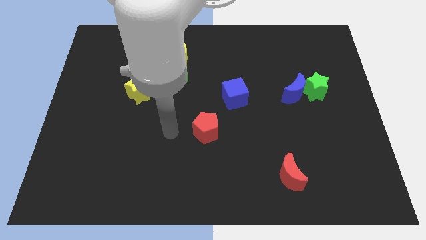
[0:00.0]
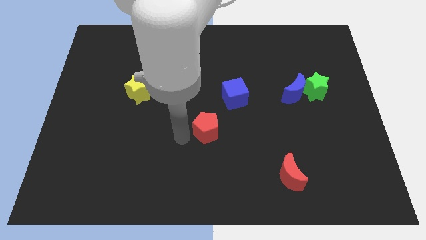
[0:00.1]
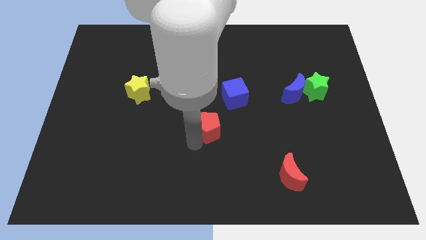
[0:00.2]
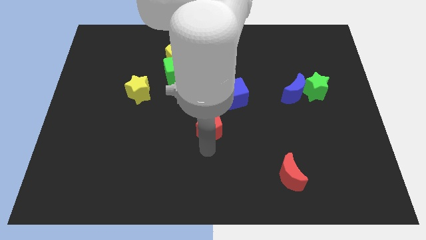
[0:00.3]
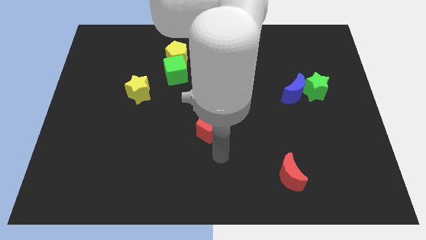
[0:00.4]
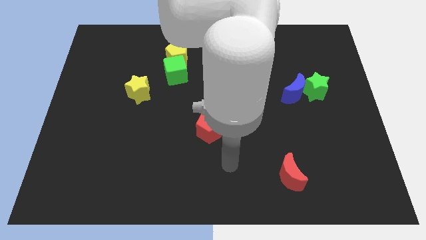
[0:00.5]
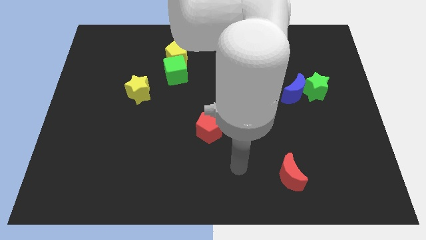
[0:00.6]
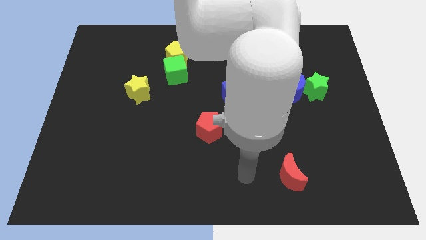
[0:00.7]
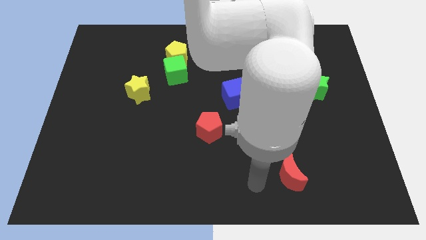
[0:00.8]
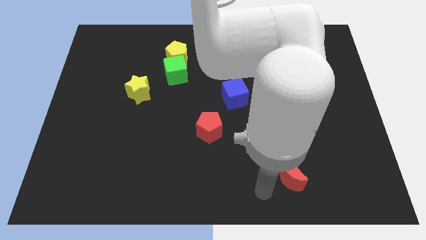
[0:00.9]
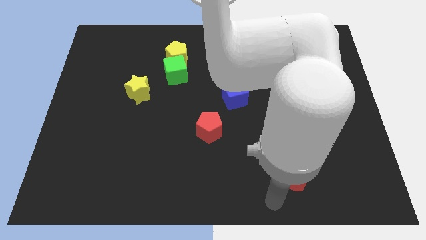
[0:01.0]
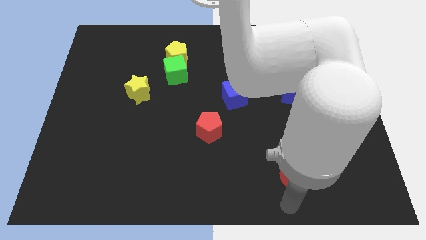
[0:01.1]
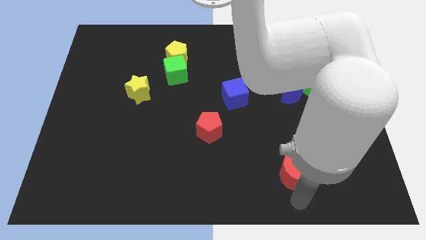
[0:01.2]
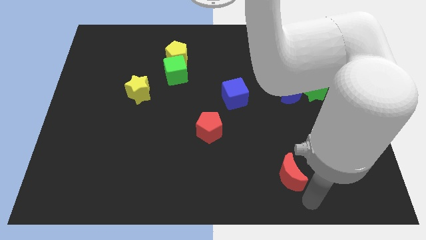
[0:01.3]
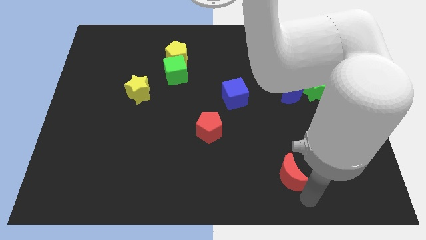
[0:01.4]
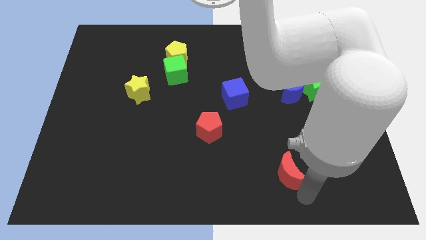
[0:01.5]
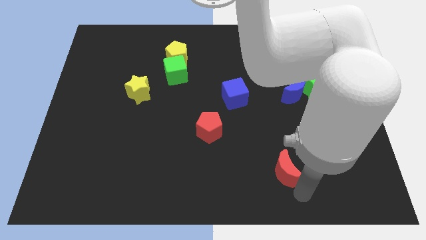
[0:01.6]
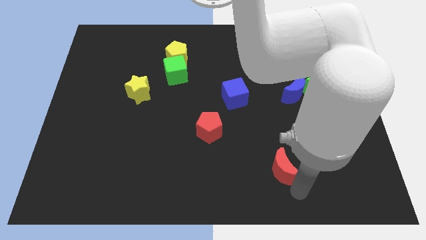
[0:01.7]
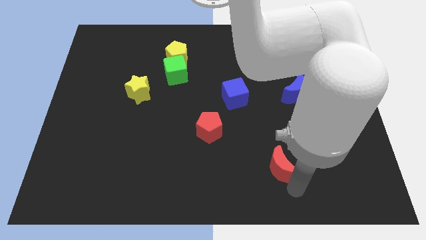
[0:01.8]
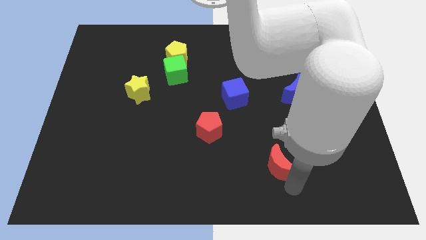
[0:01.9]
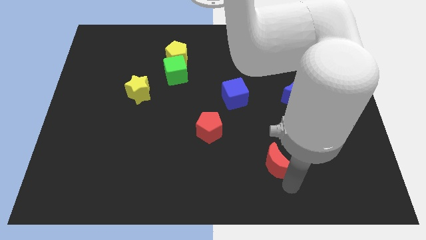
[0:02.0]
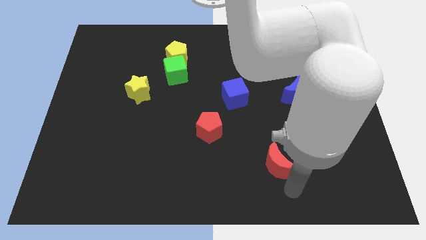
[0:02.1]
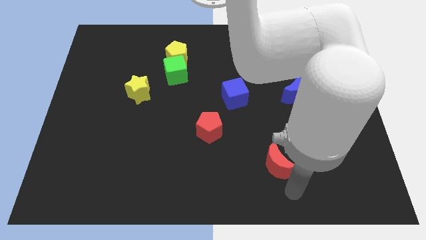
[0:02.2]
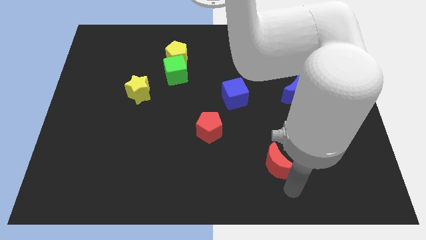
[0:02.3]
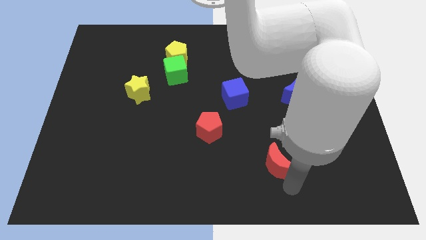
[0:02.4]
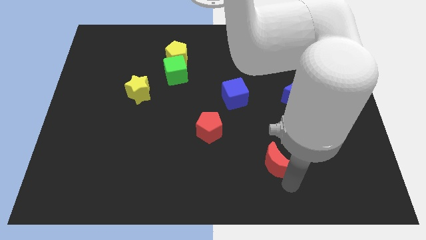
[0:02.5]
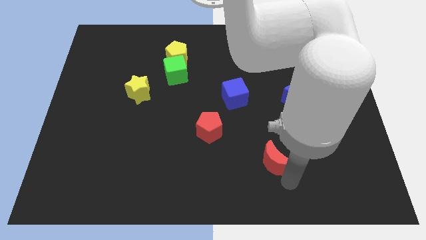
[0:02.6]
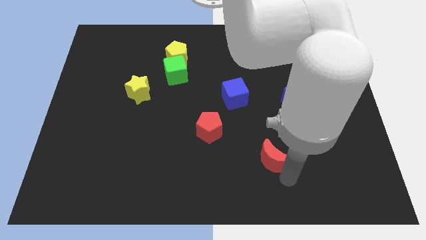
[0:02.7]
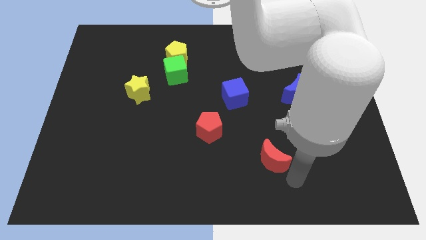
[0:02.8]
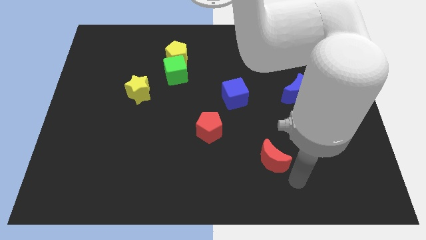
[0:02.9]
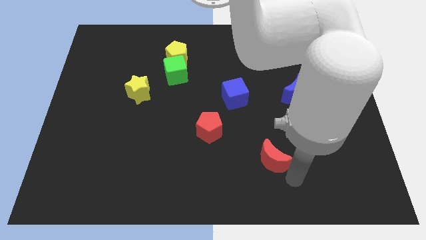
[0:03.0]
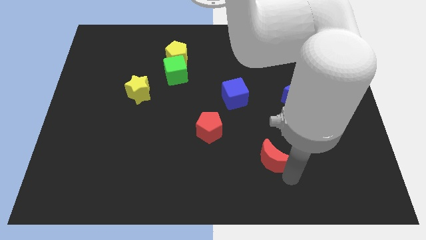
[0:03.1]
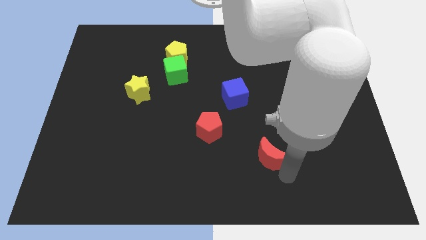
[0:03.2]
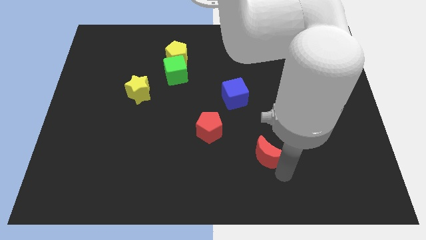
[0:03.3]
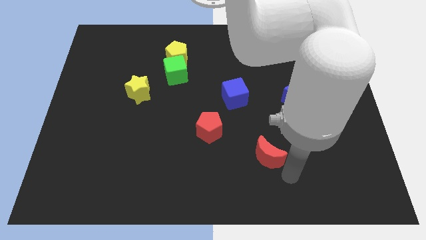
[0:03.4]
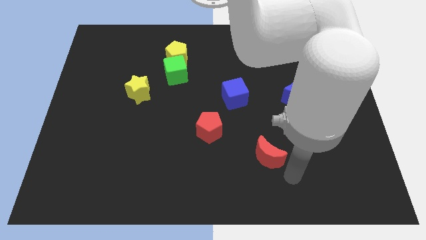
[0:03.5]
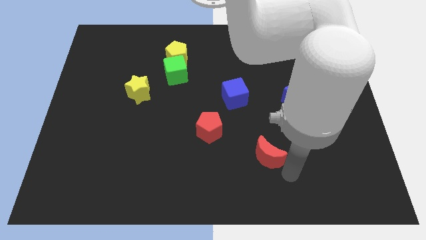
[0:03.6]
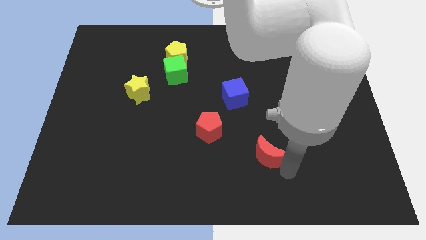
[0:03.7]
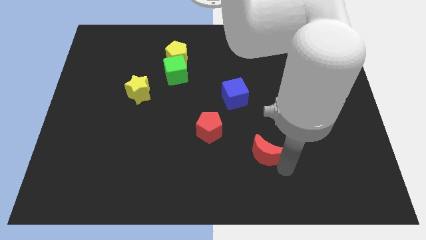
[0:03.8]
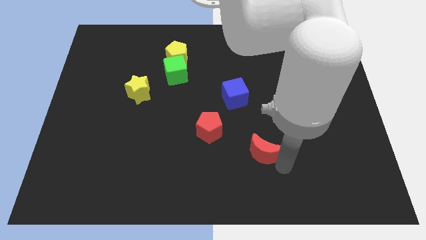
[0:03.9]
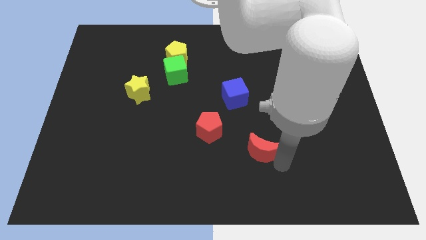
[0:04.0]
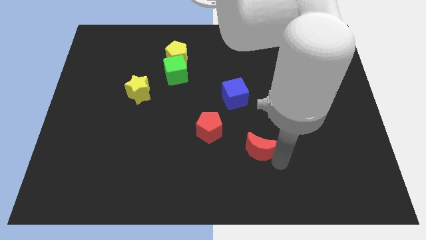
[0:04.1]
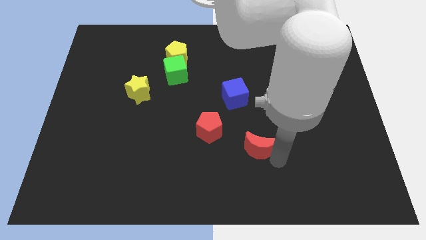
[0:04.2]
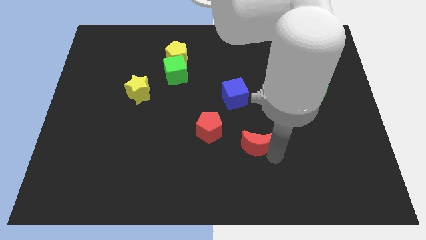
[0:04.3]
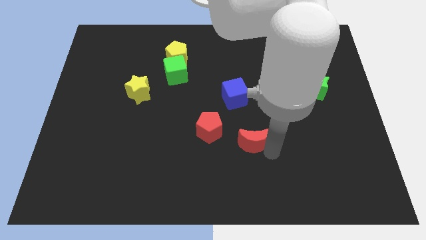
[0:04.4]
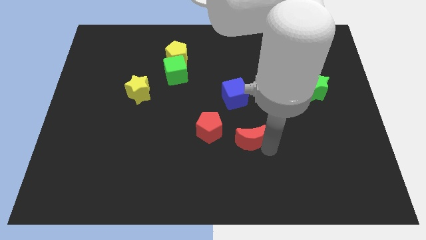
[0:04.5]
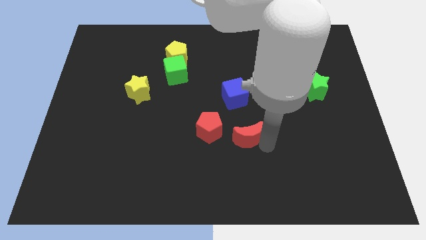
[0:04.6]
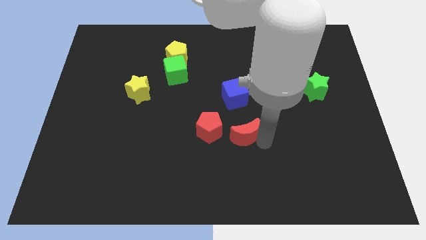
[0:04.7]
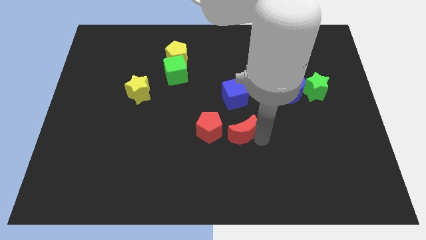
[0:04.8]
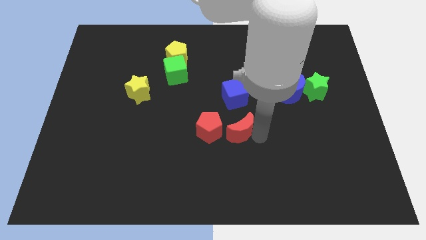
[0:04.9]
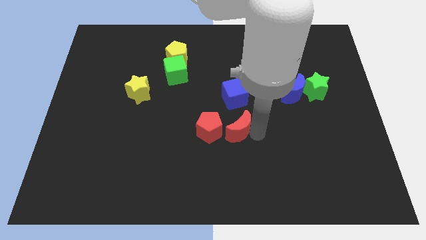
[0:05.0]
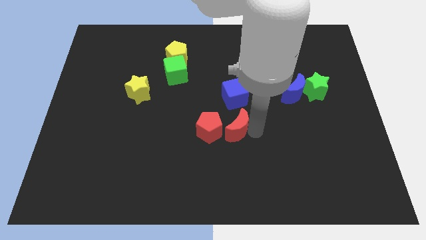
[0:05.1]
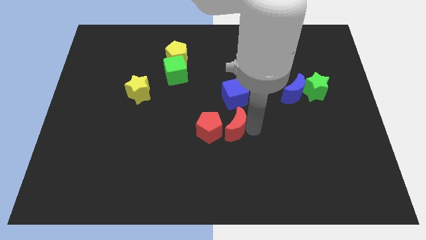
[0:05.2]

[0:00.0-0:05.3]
slide the red moon towards the red pentagon

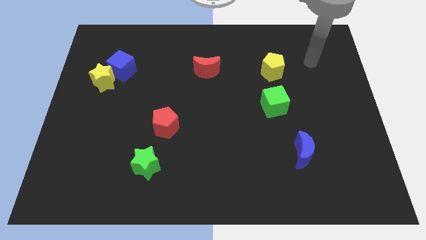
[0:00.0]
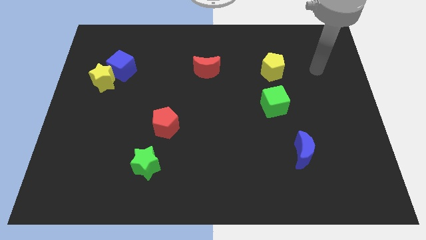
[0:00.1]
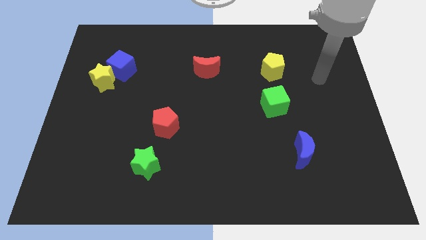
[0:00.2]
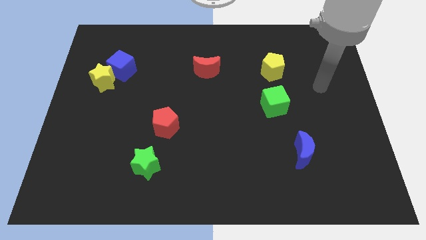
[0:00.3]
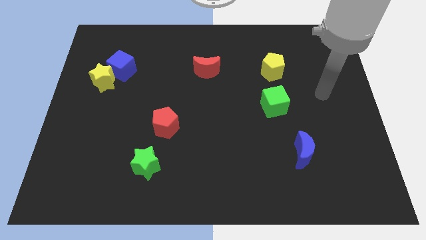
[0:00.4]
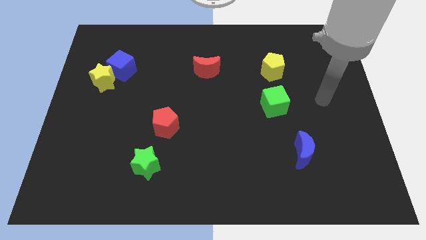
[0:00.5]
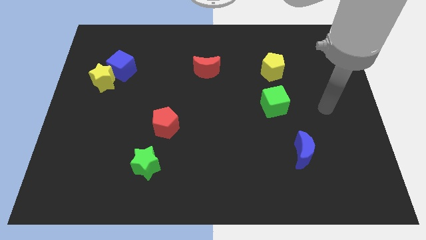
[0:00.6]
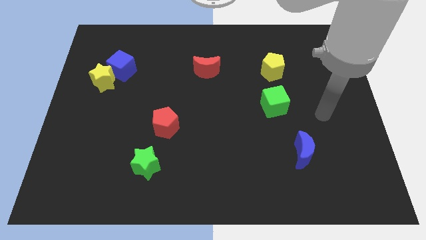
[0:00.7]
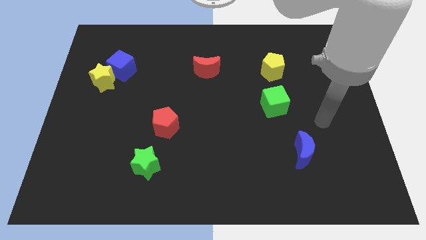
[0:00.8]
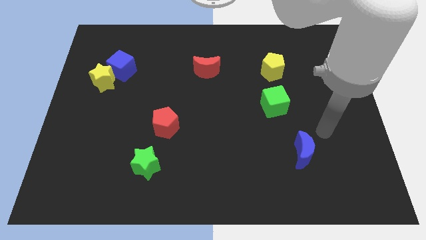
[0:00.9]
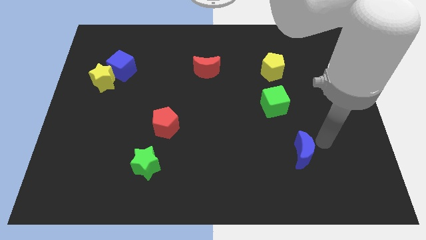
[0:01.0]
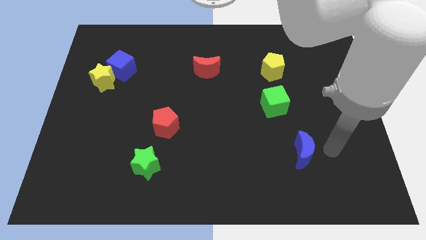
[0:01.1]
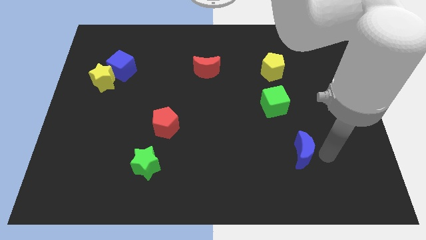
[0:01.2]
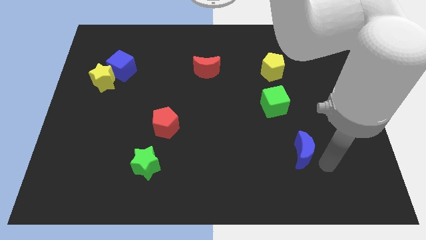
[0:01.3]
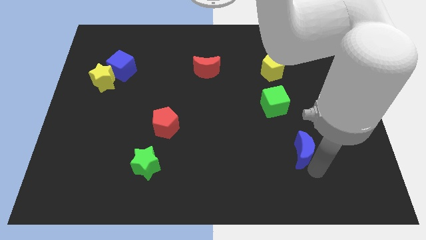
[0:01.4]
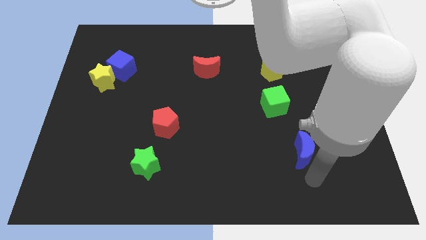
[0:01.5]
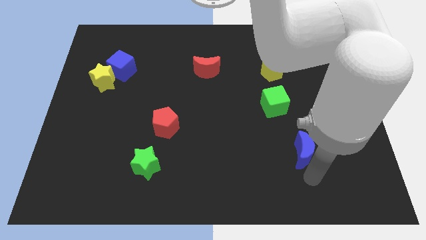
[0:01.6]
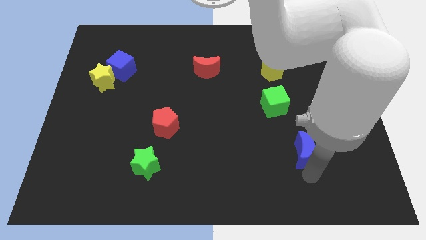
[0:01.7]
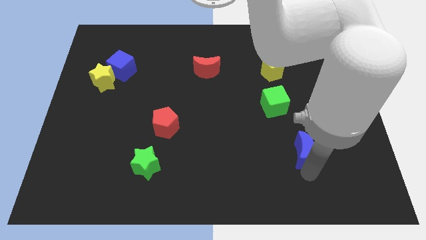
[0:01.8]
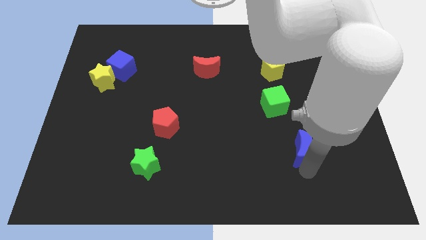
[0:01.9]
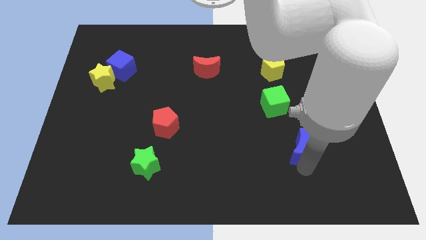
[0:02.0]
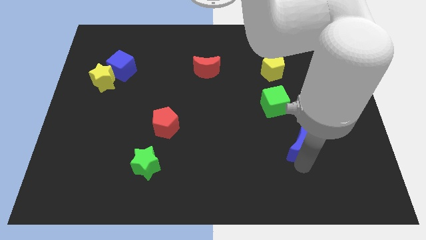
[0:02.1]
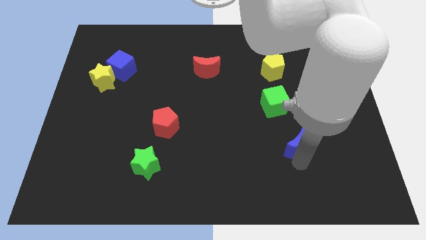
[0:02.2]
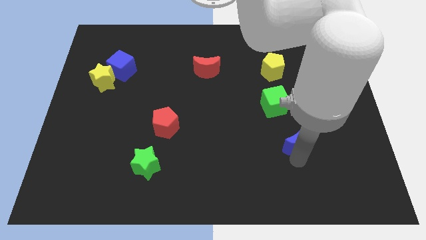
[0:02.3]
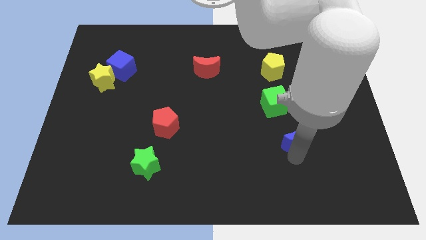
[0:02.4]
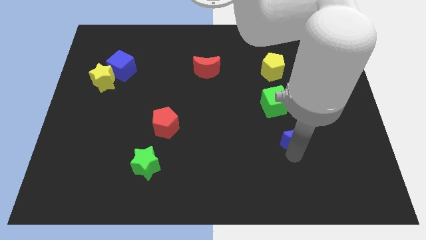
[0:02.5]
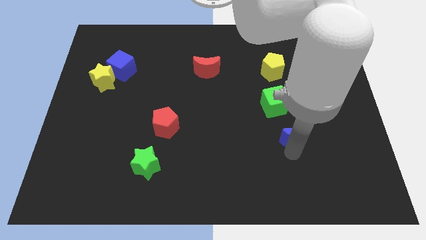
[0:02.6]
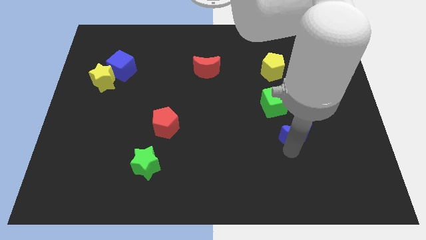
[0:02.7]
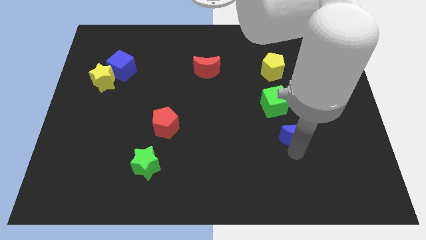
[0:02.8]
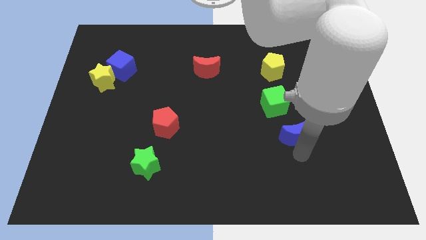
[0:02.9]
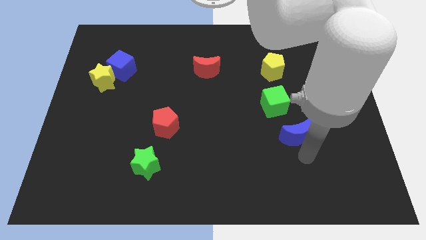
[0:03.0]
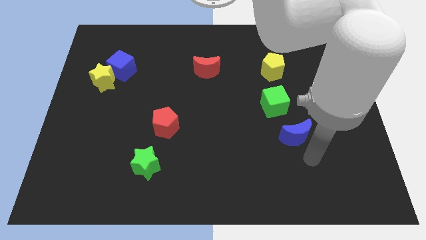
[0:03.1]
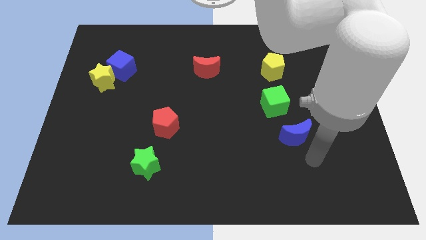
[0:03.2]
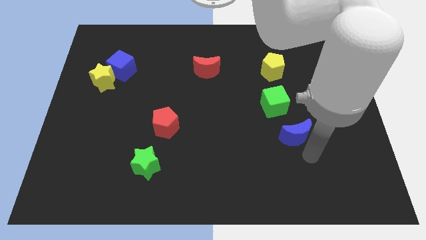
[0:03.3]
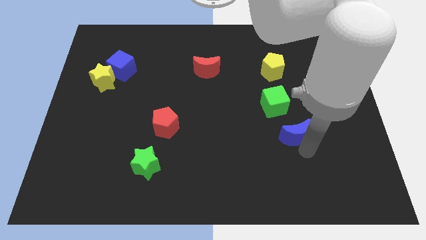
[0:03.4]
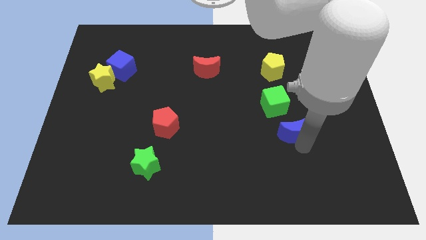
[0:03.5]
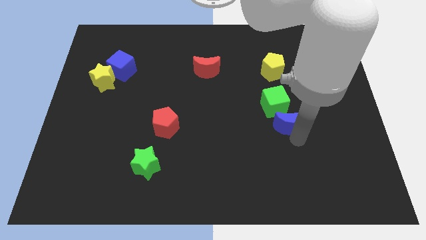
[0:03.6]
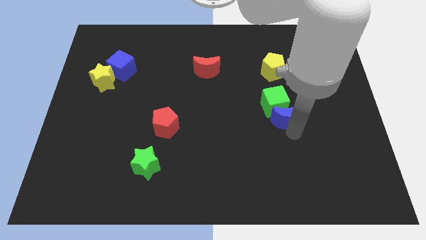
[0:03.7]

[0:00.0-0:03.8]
push the blue moon towards the green cube
